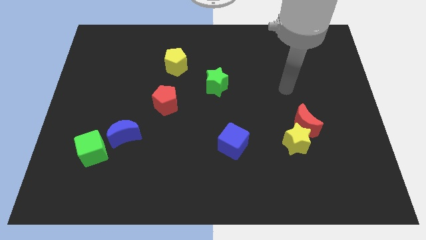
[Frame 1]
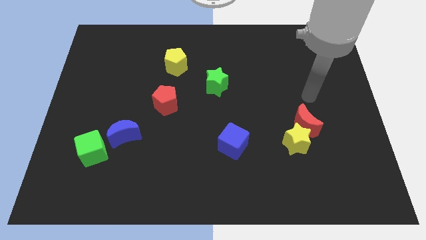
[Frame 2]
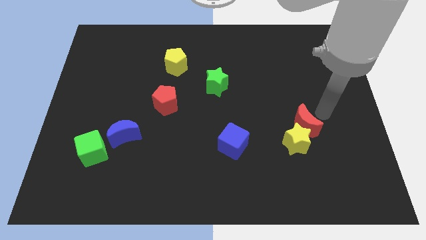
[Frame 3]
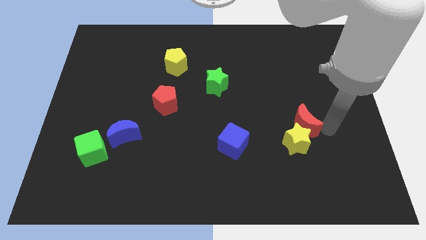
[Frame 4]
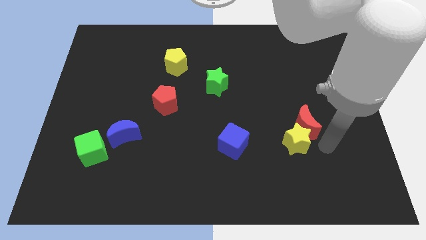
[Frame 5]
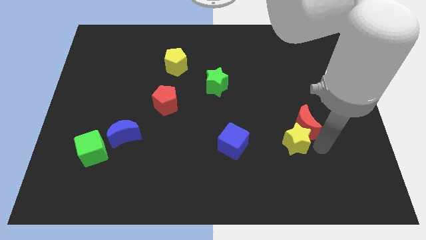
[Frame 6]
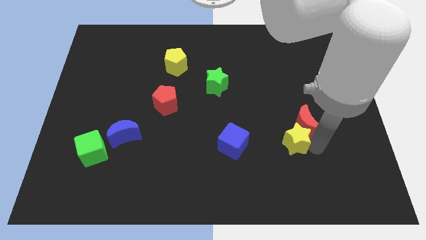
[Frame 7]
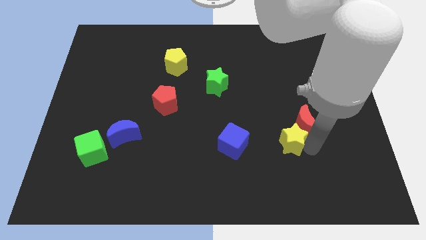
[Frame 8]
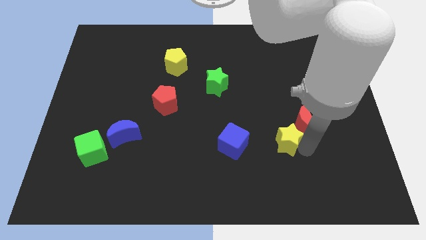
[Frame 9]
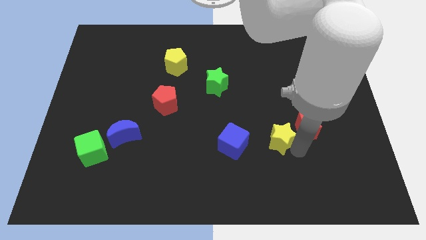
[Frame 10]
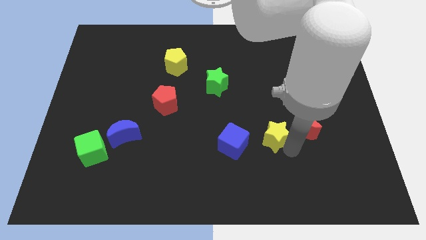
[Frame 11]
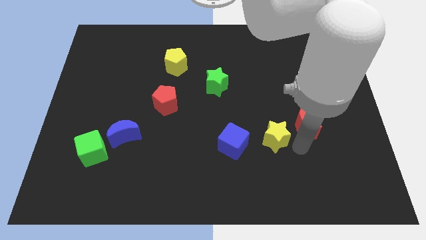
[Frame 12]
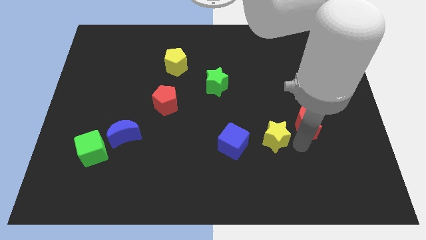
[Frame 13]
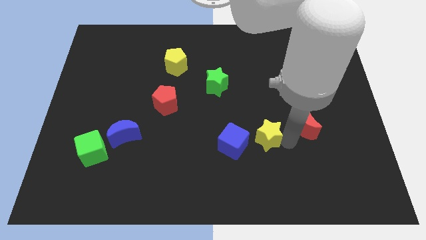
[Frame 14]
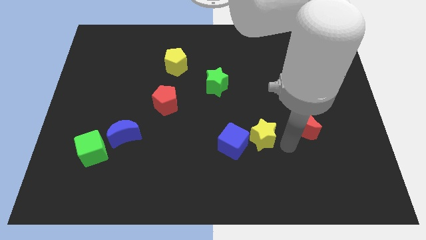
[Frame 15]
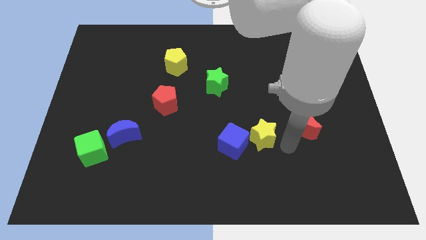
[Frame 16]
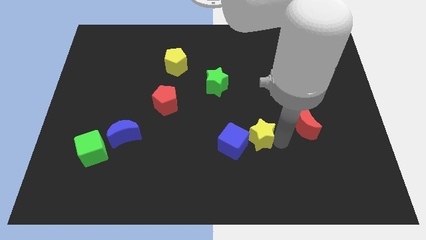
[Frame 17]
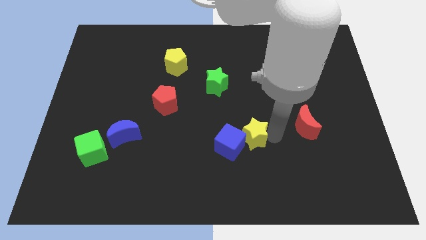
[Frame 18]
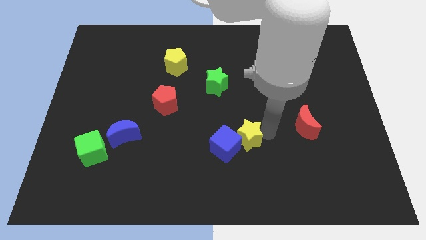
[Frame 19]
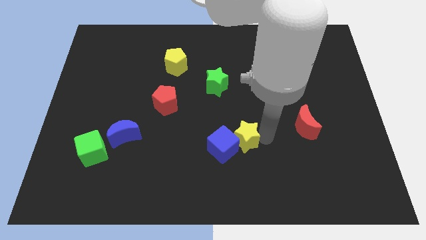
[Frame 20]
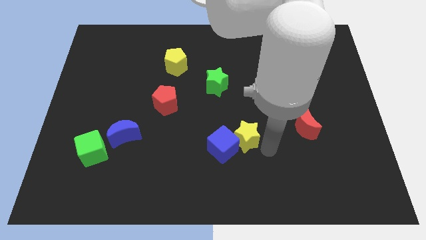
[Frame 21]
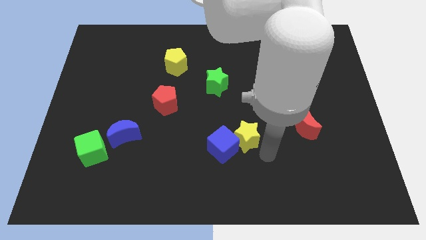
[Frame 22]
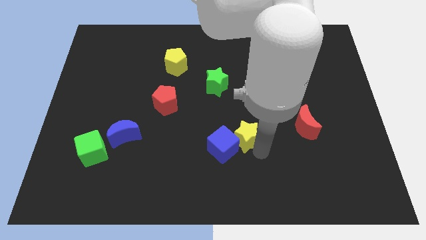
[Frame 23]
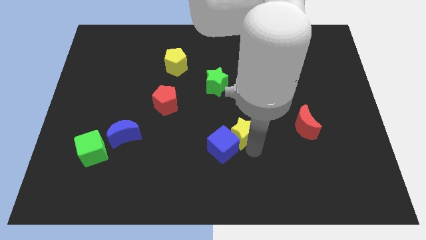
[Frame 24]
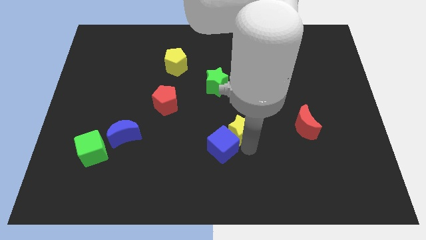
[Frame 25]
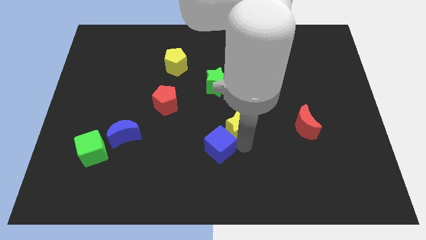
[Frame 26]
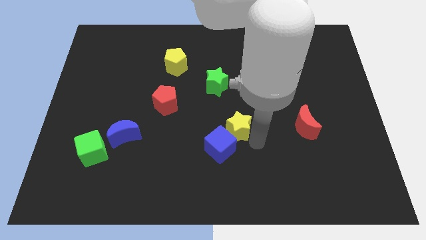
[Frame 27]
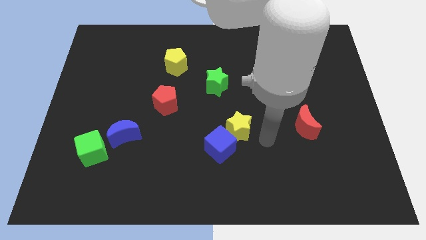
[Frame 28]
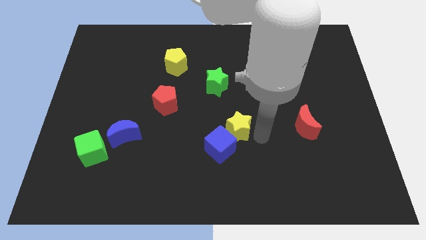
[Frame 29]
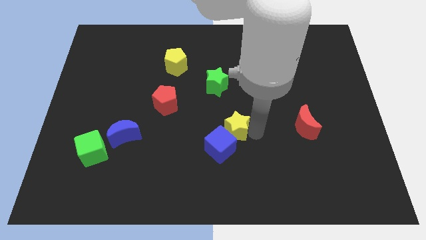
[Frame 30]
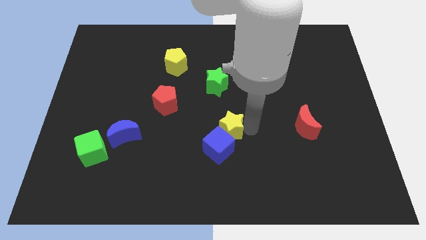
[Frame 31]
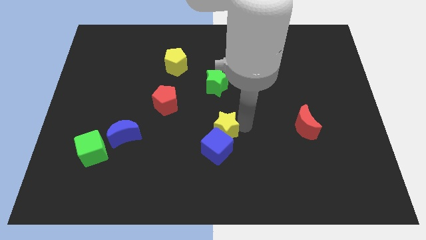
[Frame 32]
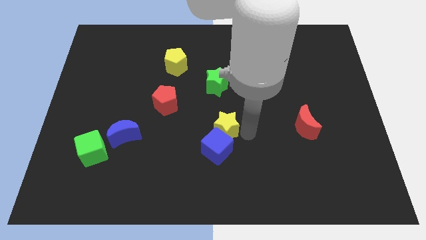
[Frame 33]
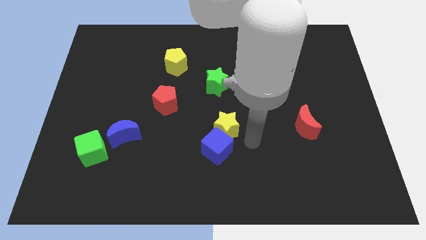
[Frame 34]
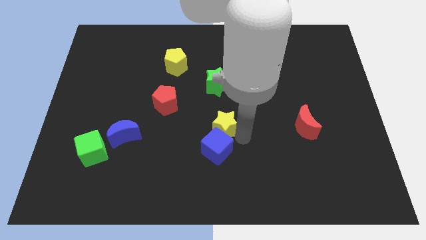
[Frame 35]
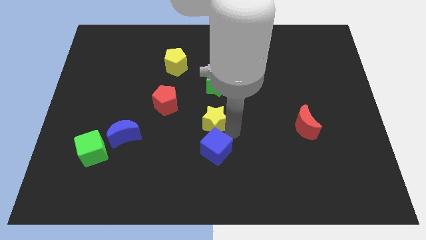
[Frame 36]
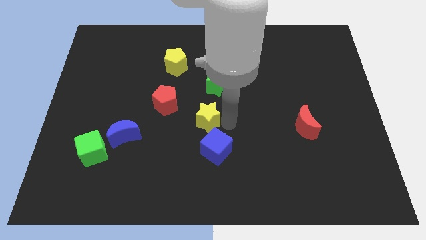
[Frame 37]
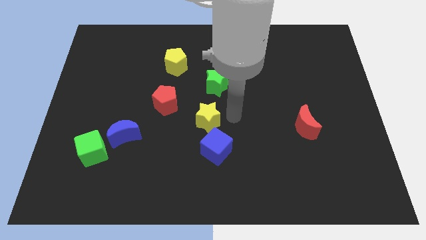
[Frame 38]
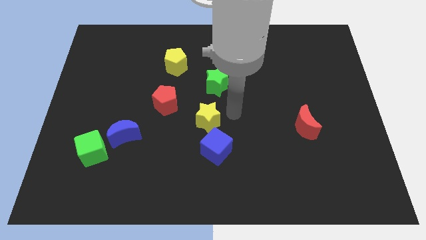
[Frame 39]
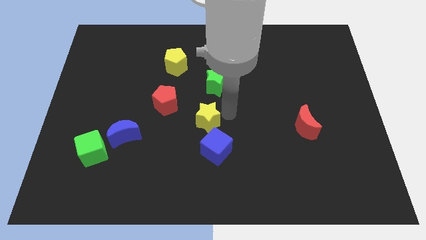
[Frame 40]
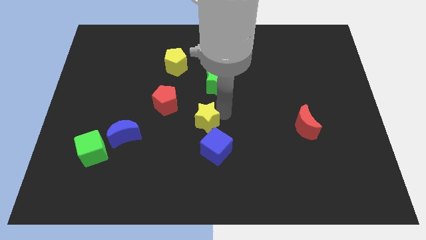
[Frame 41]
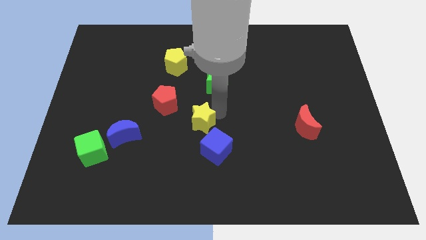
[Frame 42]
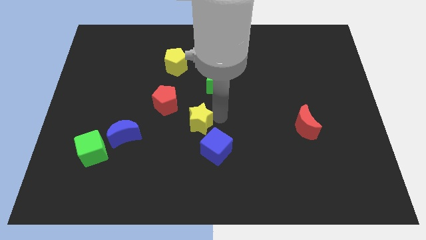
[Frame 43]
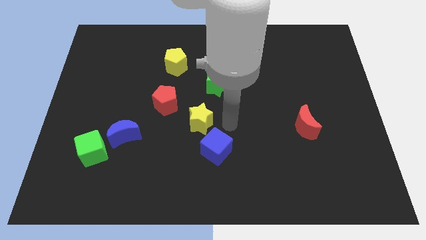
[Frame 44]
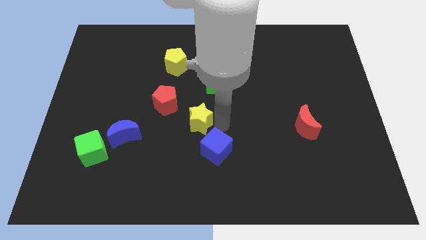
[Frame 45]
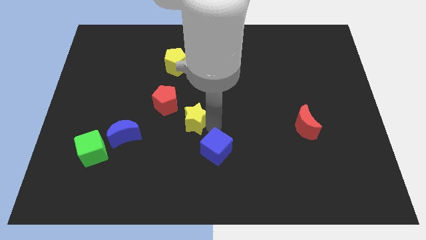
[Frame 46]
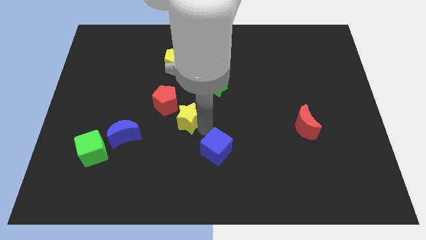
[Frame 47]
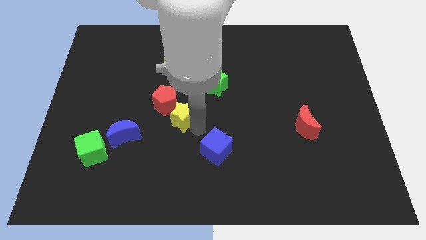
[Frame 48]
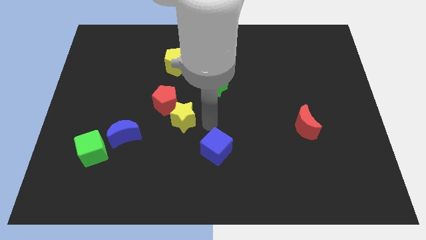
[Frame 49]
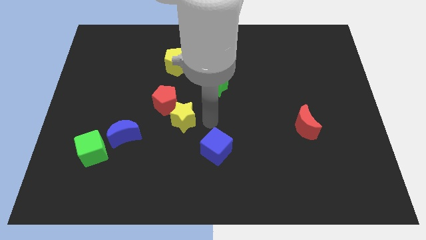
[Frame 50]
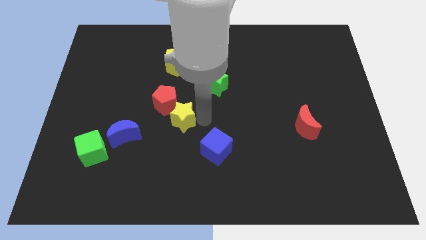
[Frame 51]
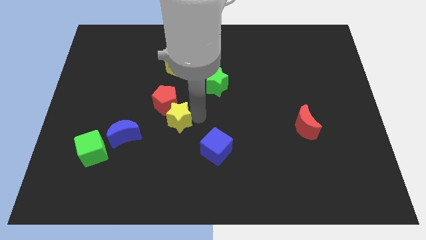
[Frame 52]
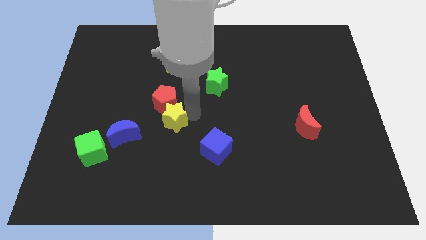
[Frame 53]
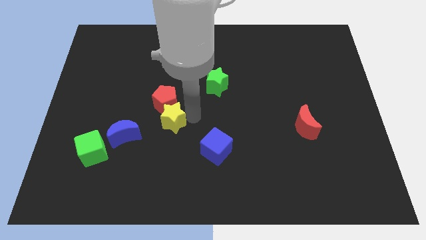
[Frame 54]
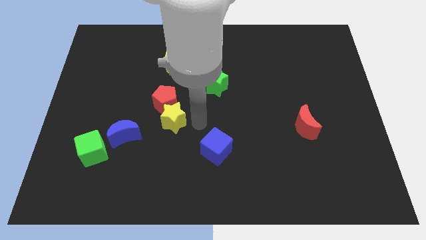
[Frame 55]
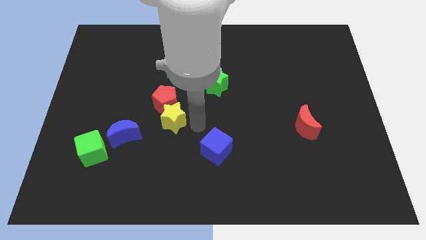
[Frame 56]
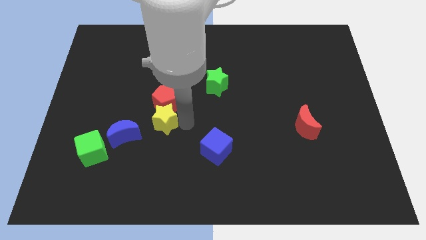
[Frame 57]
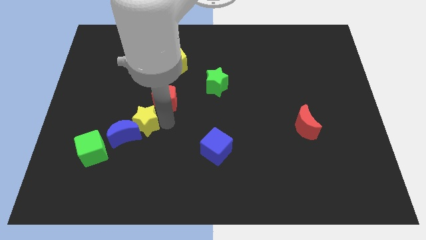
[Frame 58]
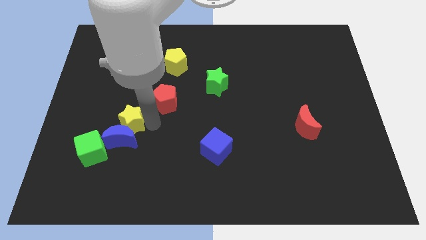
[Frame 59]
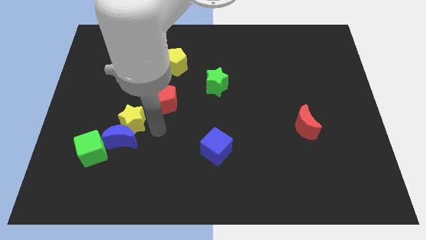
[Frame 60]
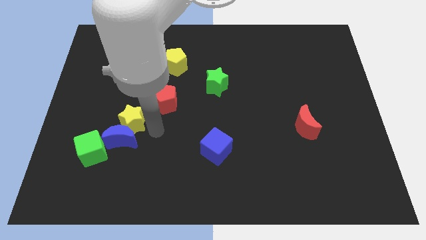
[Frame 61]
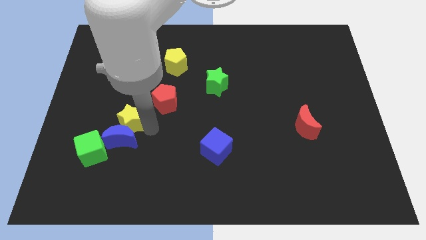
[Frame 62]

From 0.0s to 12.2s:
slide the yellow star diagonally up and to the left of the blue moon
